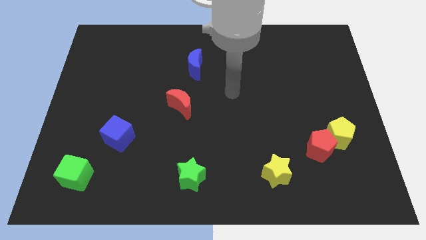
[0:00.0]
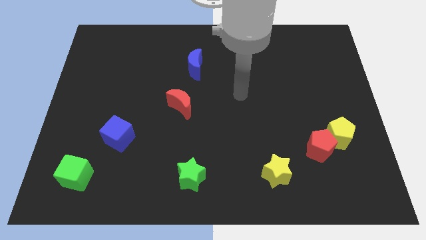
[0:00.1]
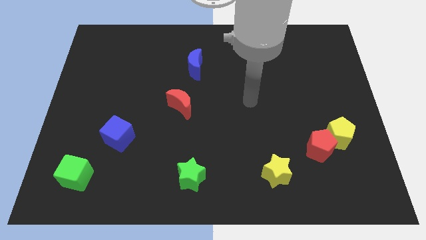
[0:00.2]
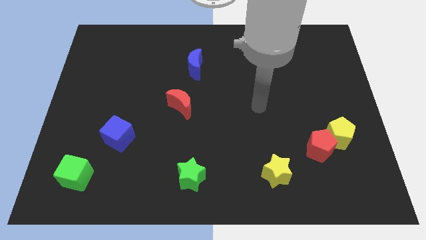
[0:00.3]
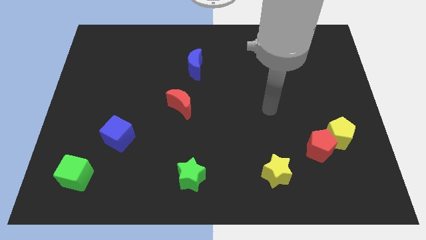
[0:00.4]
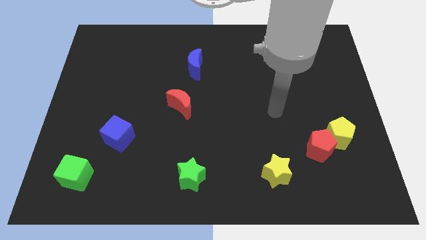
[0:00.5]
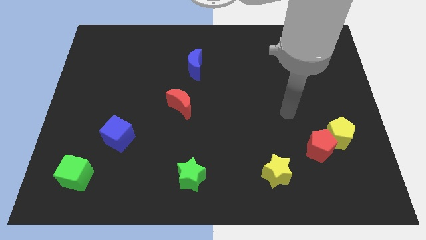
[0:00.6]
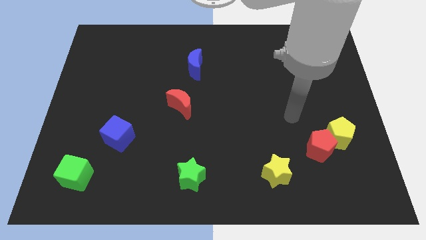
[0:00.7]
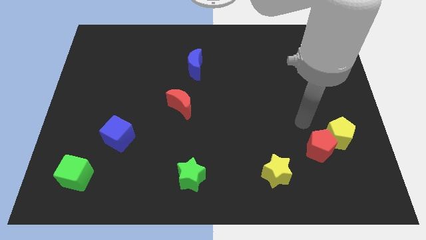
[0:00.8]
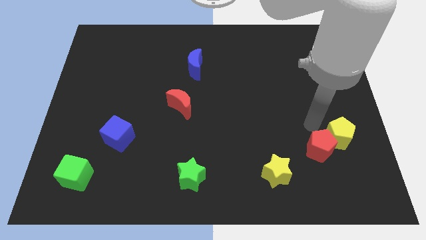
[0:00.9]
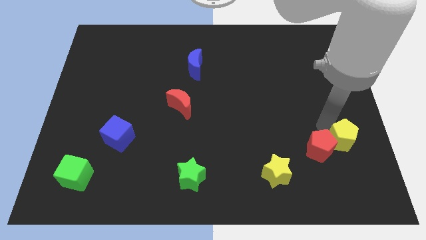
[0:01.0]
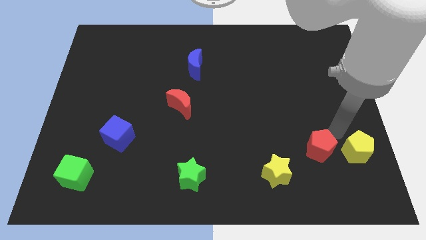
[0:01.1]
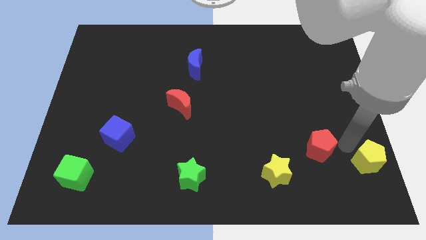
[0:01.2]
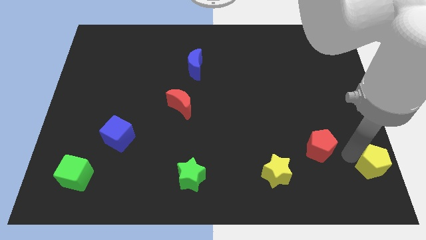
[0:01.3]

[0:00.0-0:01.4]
pull the red pentagon apart from the yellow pentagon

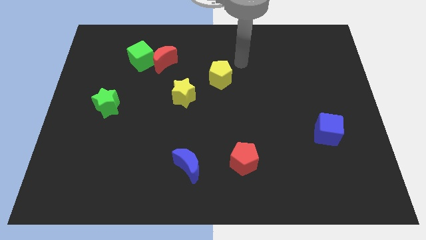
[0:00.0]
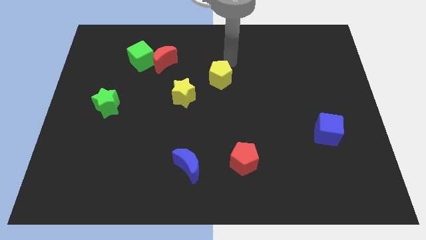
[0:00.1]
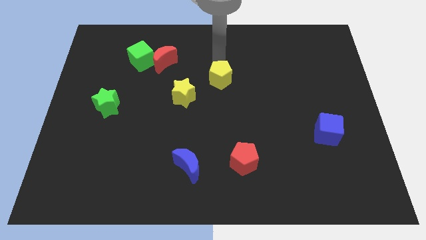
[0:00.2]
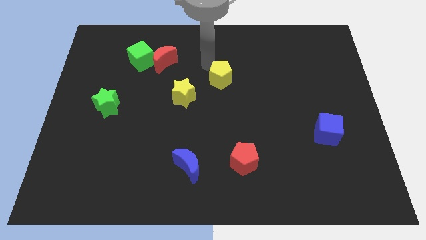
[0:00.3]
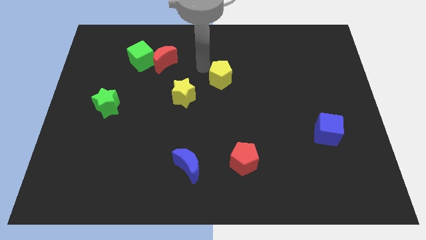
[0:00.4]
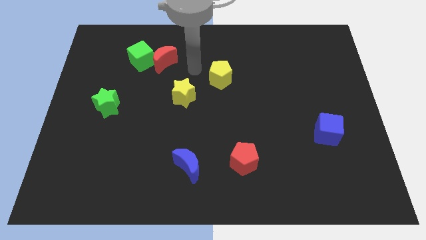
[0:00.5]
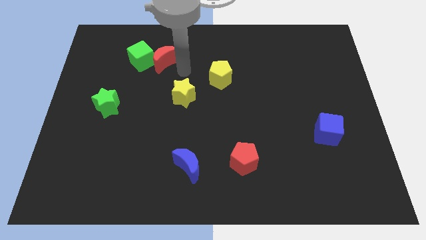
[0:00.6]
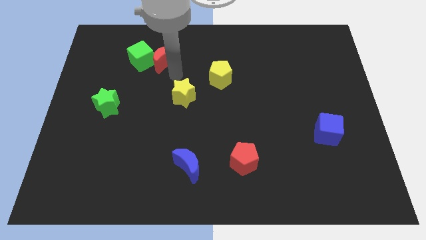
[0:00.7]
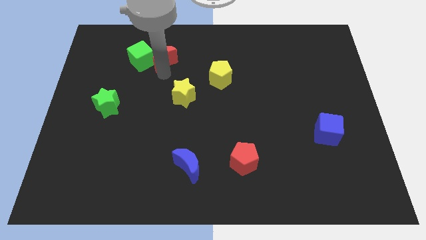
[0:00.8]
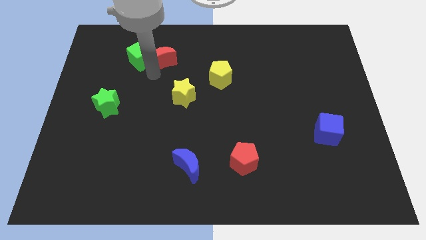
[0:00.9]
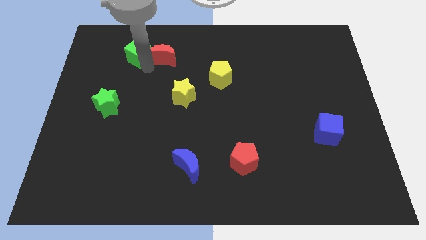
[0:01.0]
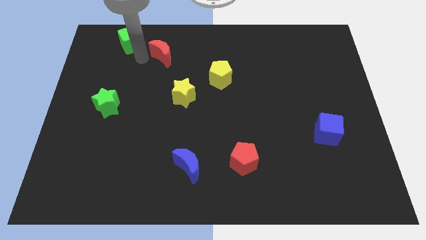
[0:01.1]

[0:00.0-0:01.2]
separate the red moon from the green cube

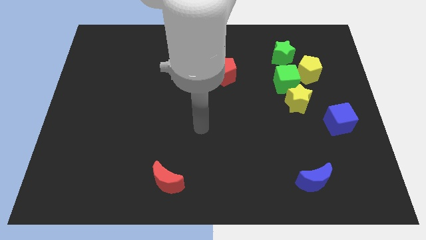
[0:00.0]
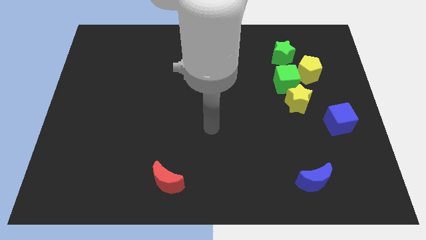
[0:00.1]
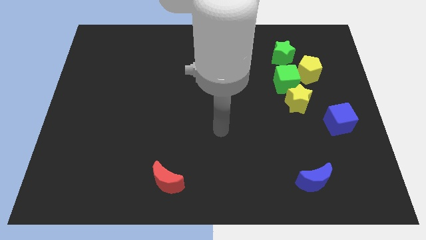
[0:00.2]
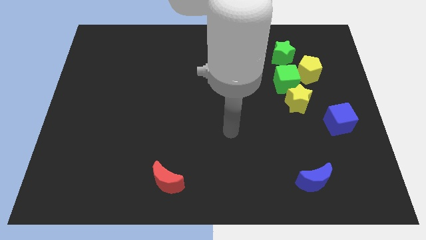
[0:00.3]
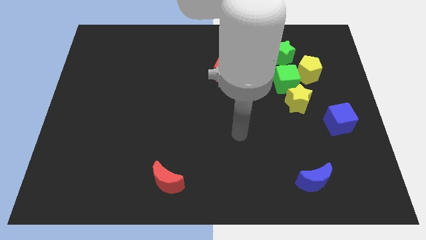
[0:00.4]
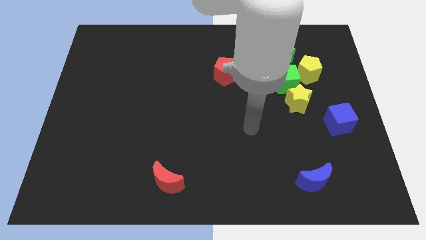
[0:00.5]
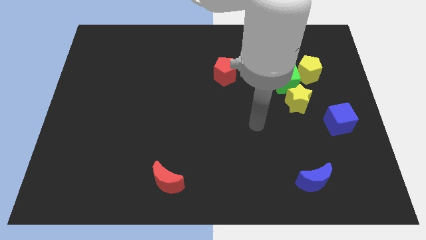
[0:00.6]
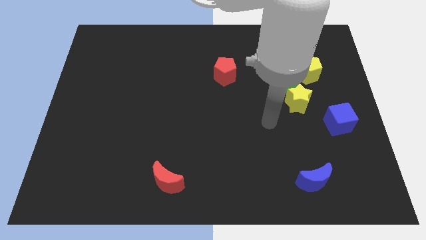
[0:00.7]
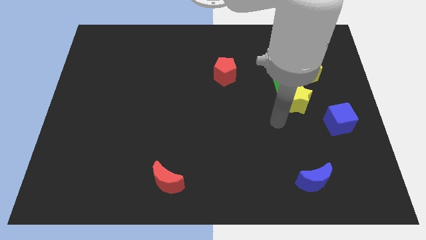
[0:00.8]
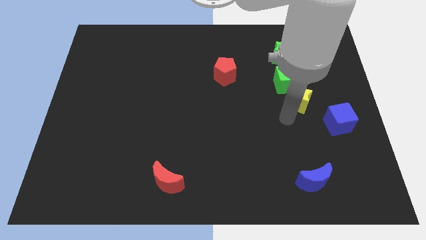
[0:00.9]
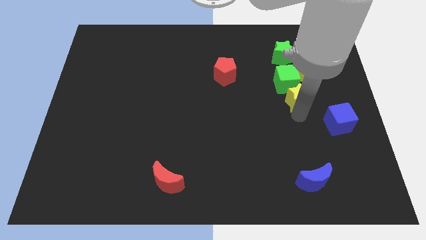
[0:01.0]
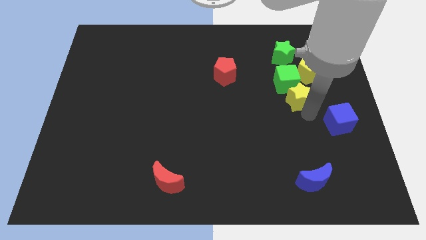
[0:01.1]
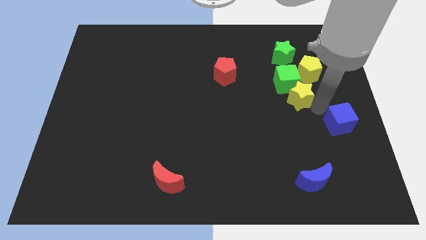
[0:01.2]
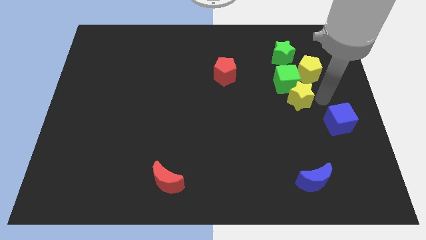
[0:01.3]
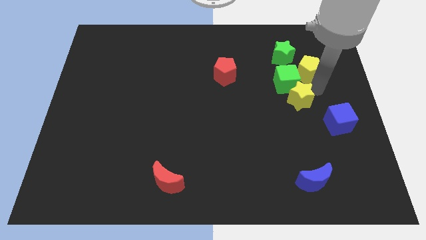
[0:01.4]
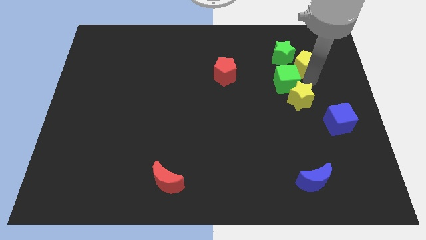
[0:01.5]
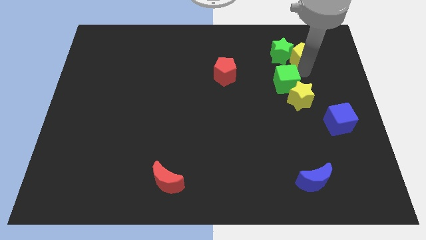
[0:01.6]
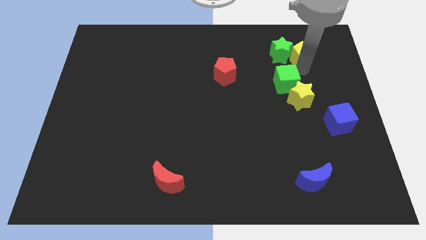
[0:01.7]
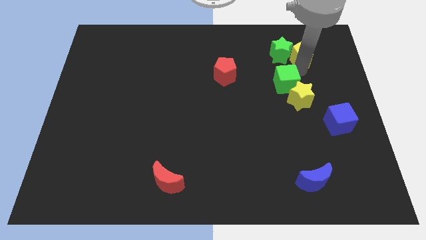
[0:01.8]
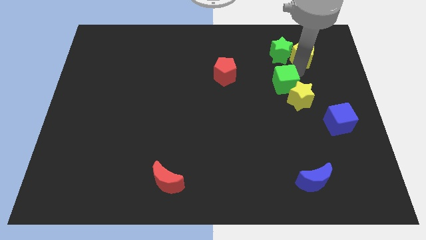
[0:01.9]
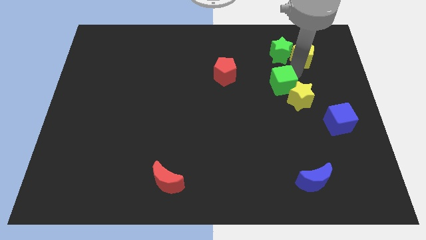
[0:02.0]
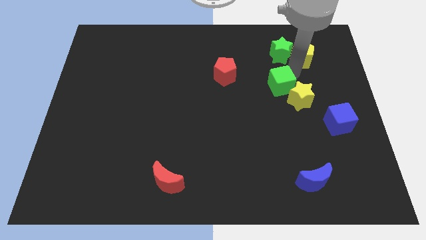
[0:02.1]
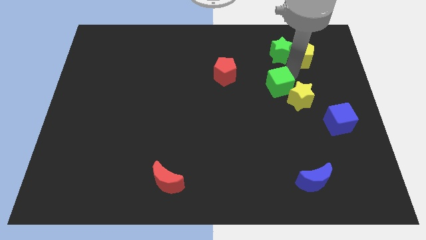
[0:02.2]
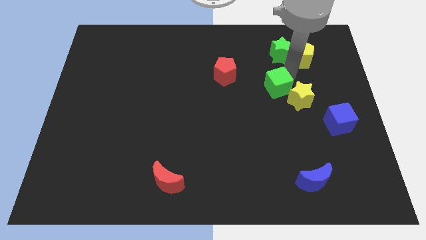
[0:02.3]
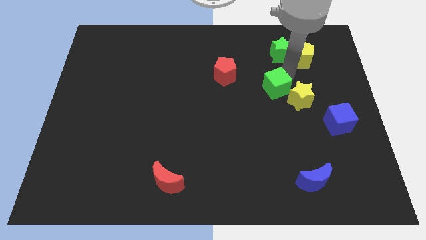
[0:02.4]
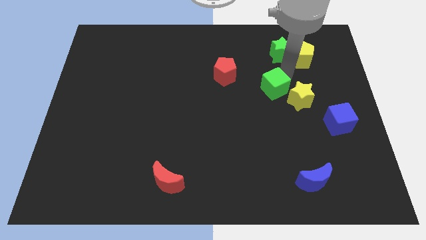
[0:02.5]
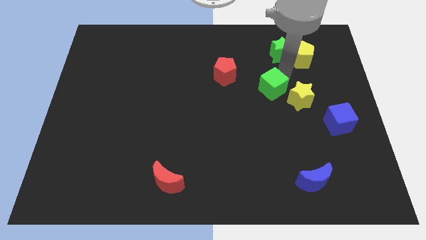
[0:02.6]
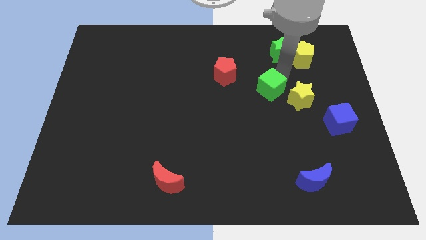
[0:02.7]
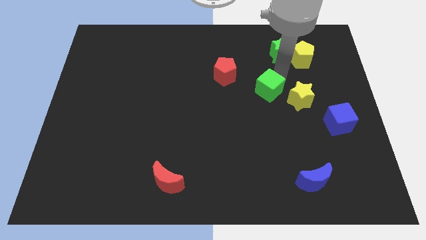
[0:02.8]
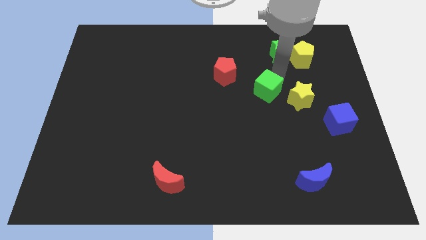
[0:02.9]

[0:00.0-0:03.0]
pull the green cube apart from the clump

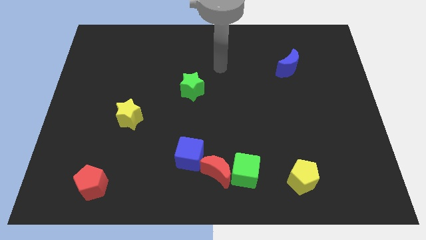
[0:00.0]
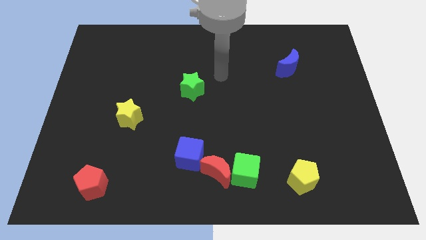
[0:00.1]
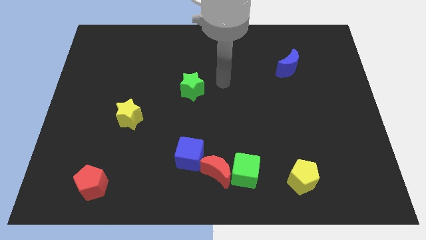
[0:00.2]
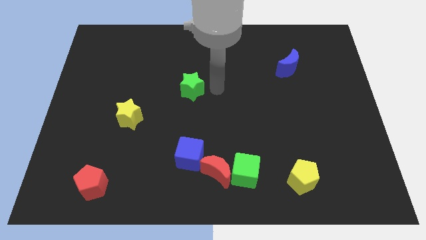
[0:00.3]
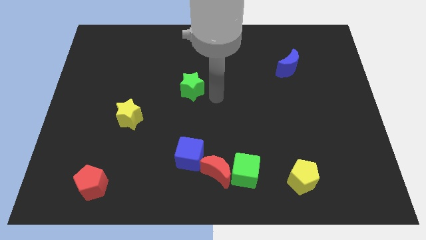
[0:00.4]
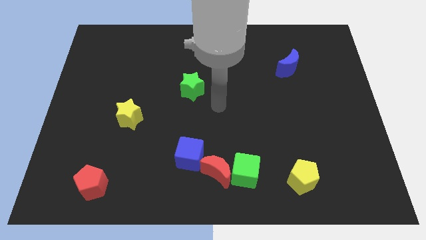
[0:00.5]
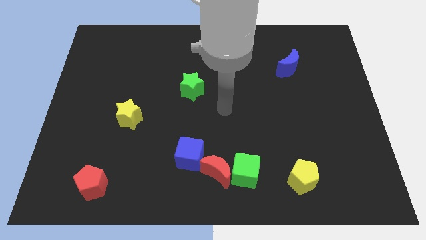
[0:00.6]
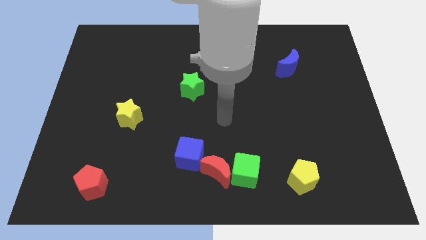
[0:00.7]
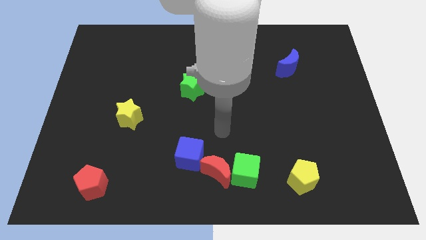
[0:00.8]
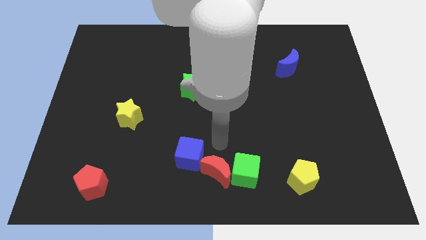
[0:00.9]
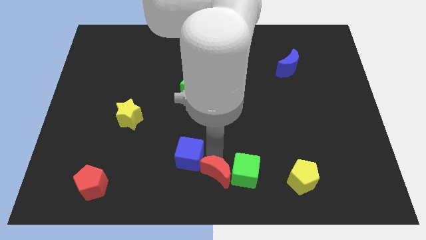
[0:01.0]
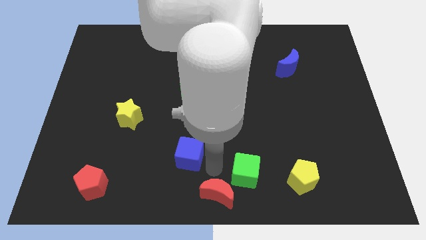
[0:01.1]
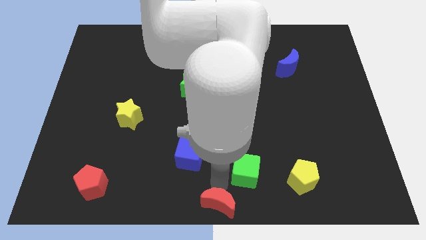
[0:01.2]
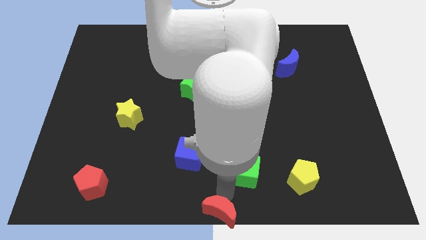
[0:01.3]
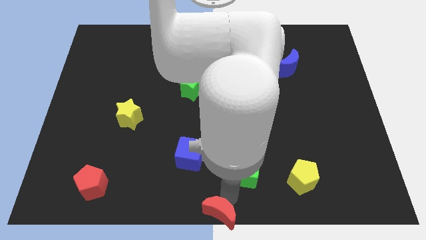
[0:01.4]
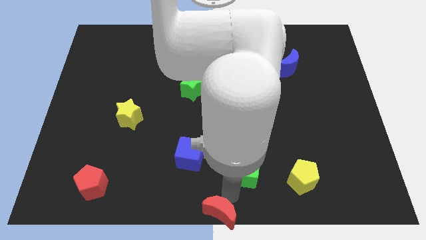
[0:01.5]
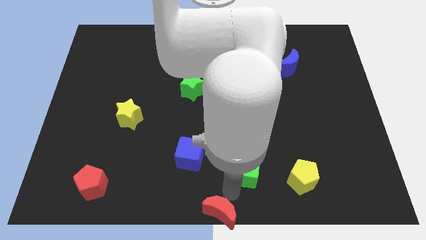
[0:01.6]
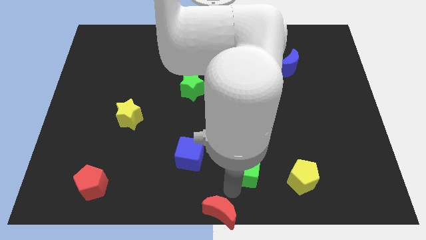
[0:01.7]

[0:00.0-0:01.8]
pull the green cube apart from the red moon

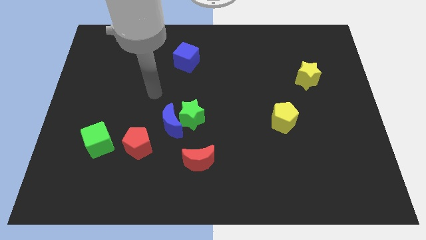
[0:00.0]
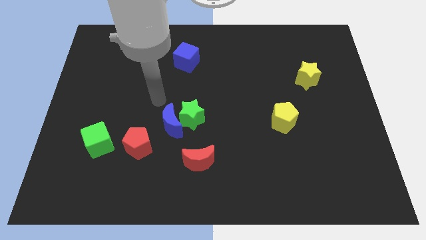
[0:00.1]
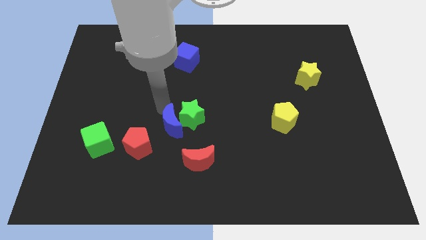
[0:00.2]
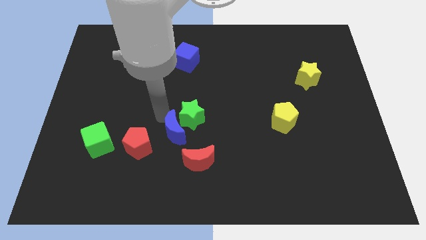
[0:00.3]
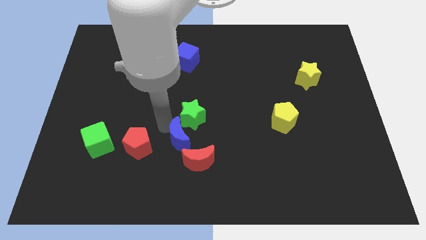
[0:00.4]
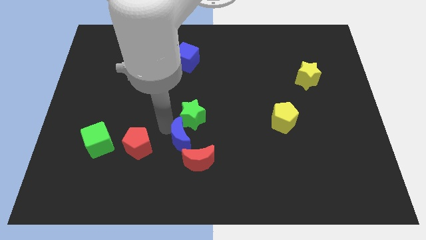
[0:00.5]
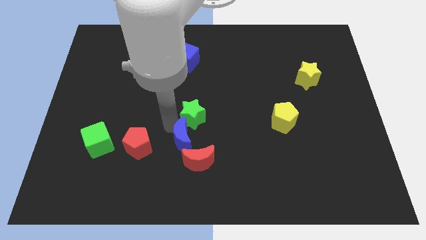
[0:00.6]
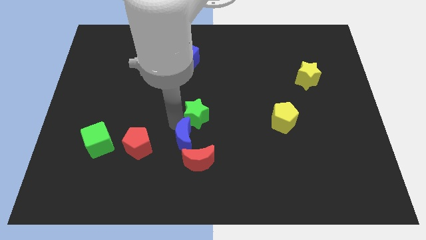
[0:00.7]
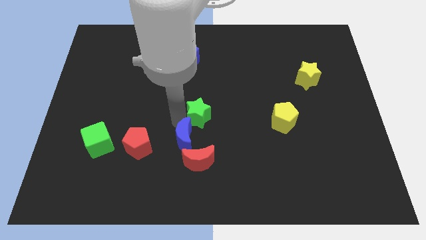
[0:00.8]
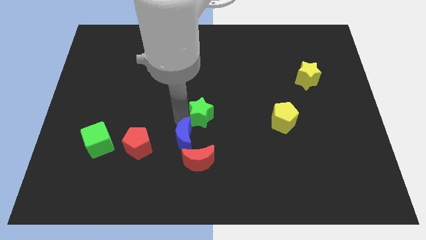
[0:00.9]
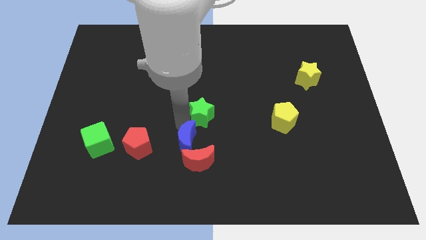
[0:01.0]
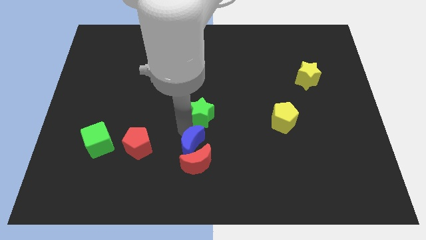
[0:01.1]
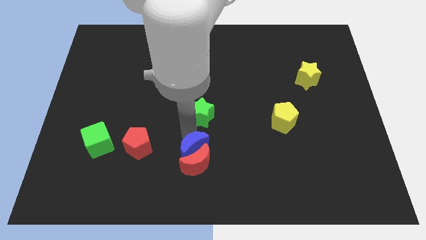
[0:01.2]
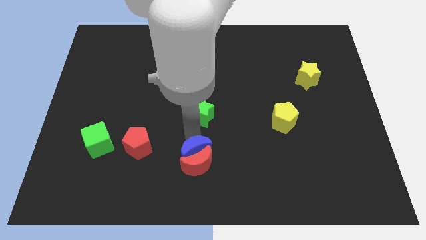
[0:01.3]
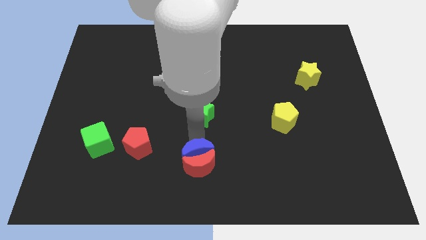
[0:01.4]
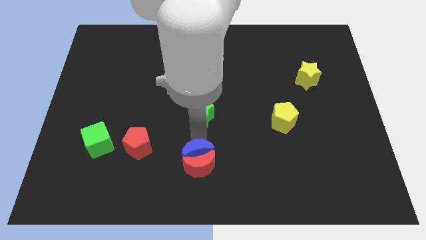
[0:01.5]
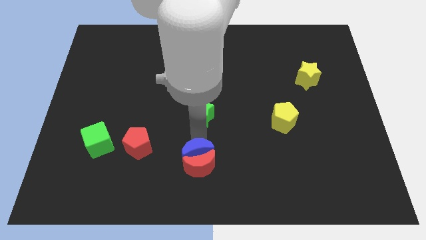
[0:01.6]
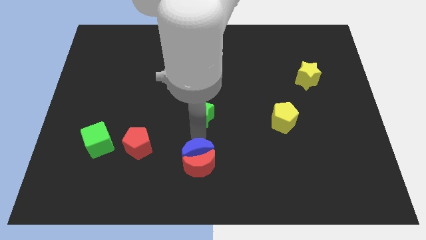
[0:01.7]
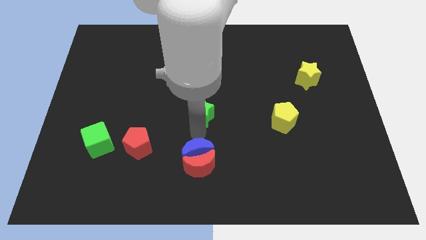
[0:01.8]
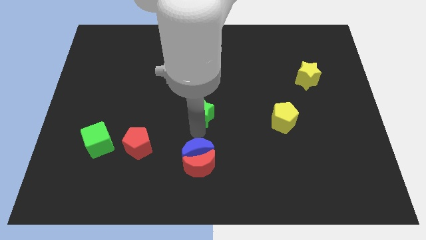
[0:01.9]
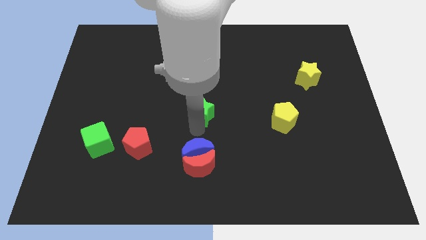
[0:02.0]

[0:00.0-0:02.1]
separate the green star from the blue moon
